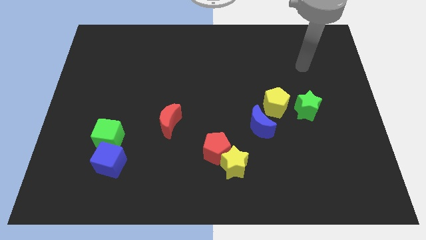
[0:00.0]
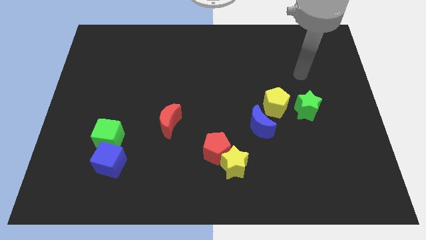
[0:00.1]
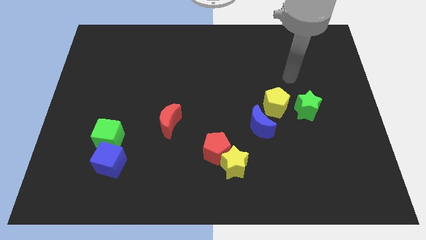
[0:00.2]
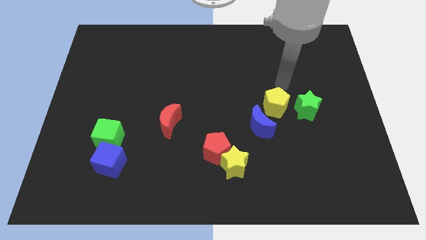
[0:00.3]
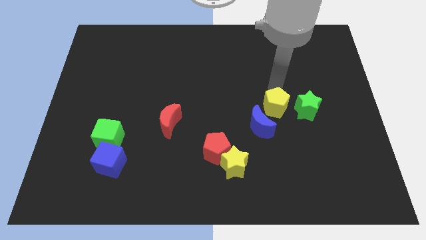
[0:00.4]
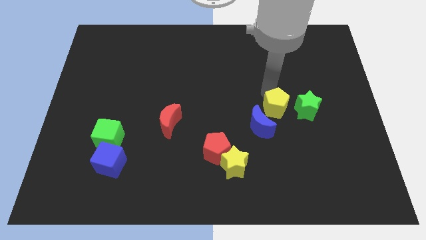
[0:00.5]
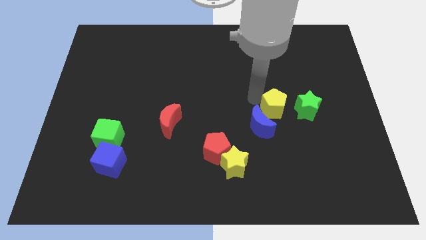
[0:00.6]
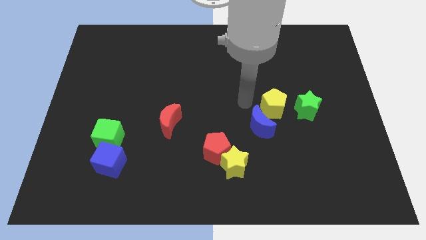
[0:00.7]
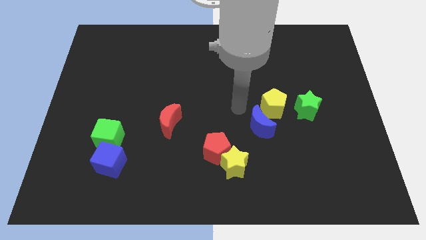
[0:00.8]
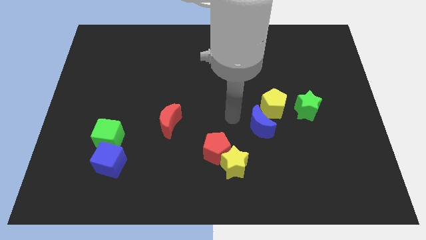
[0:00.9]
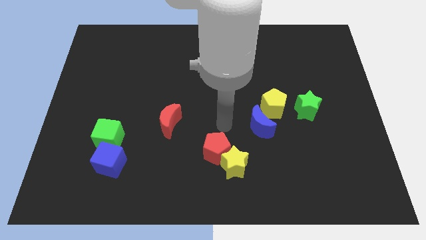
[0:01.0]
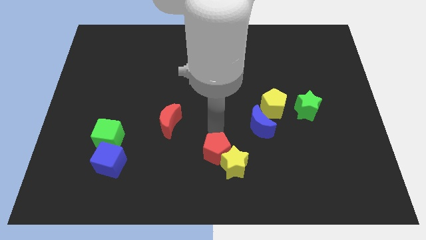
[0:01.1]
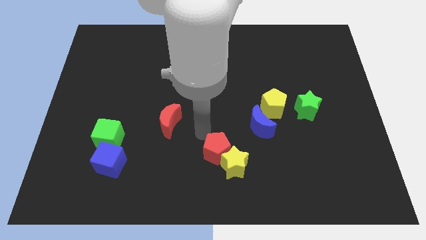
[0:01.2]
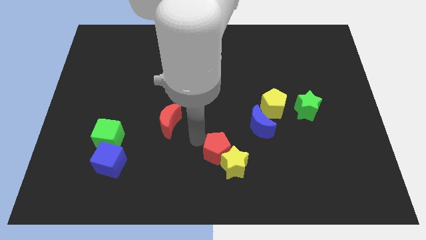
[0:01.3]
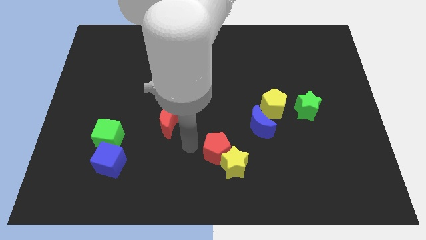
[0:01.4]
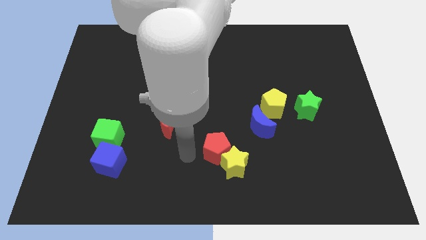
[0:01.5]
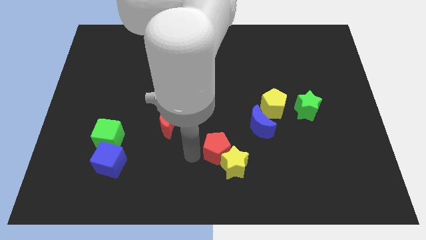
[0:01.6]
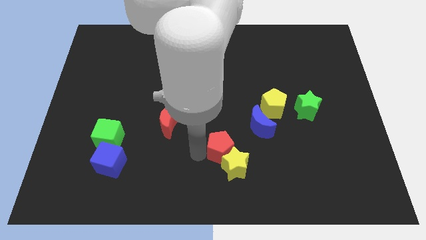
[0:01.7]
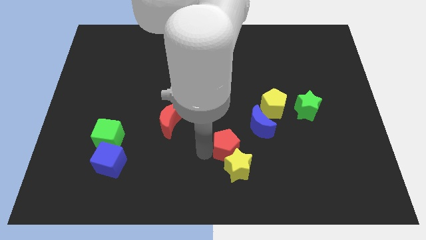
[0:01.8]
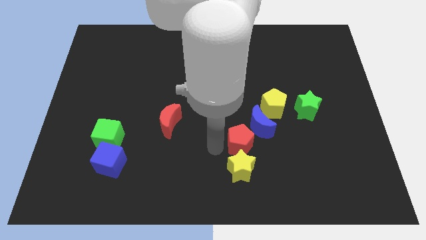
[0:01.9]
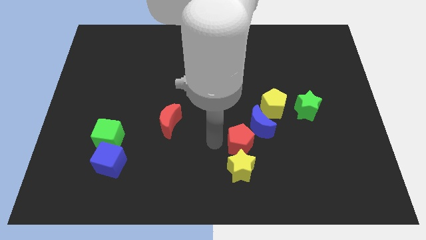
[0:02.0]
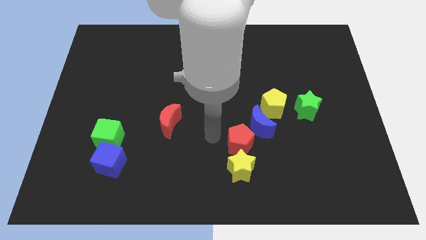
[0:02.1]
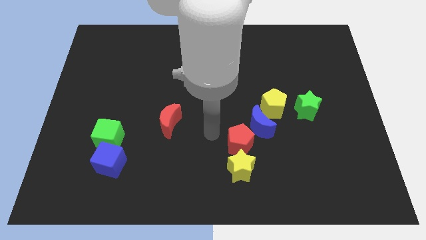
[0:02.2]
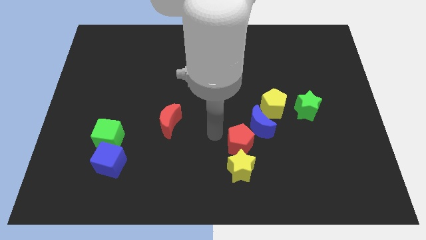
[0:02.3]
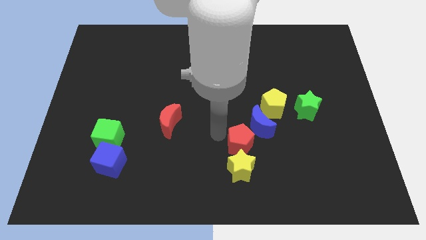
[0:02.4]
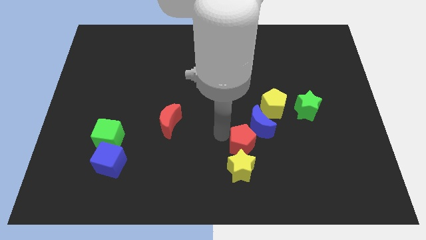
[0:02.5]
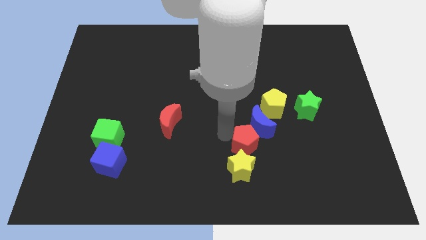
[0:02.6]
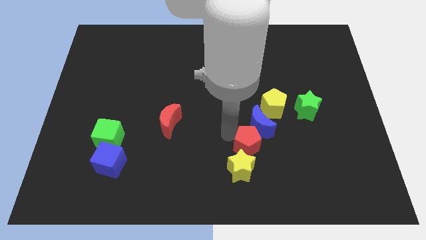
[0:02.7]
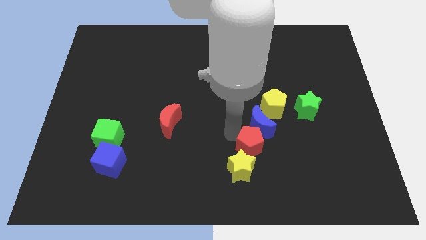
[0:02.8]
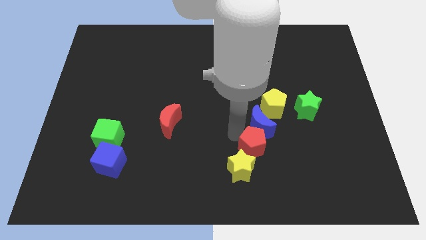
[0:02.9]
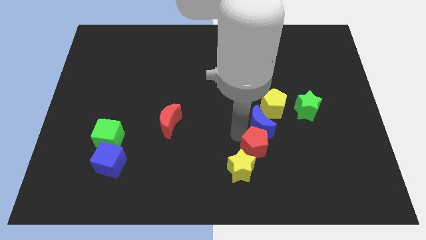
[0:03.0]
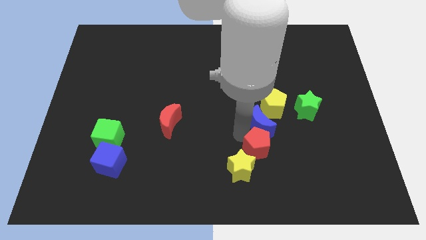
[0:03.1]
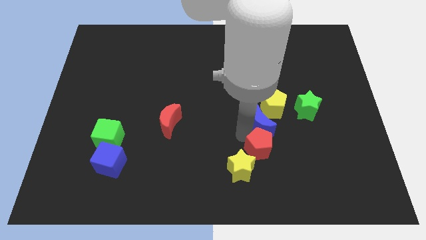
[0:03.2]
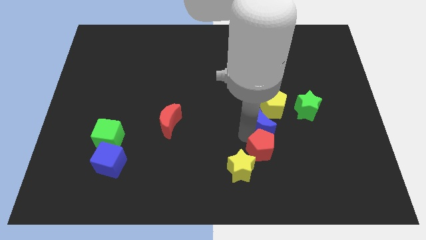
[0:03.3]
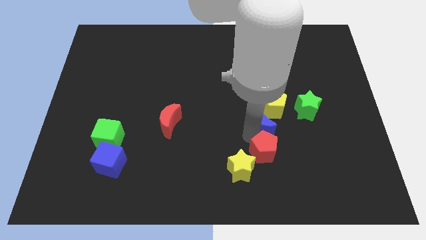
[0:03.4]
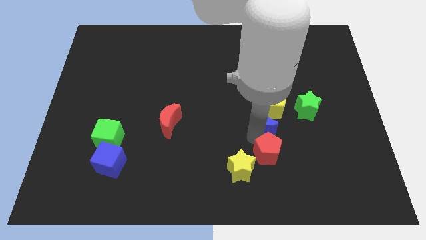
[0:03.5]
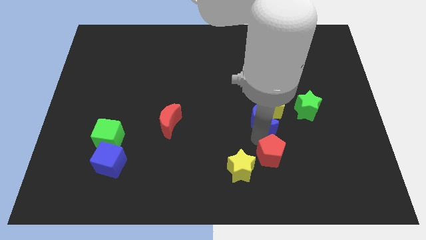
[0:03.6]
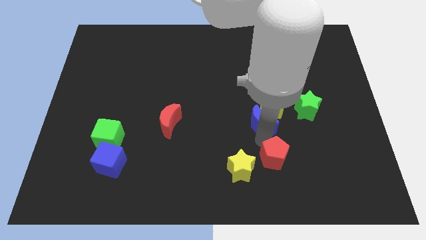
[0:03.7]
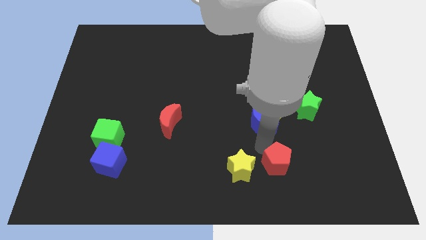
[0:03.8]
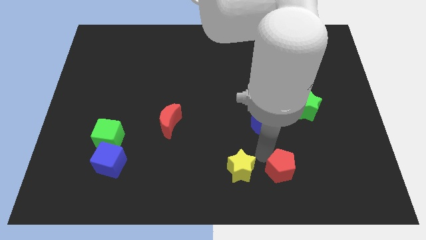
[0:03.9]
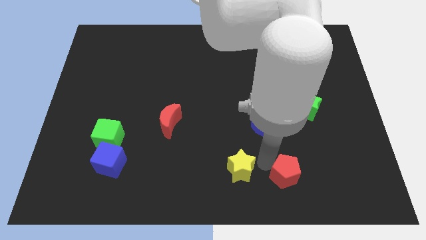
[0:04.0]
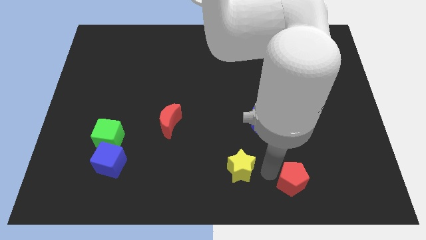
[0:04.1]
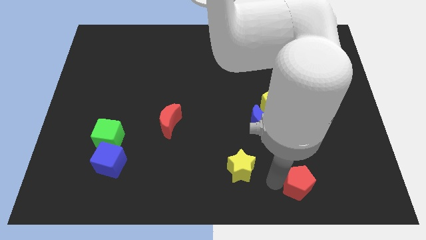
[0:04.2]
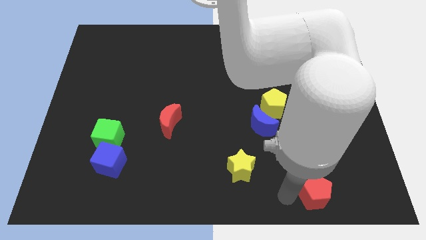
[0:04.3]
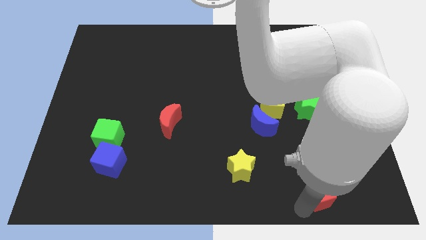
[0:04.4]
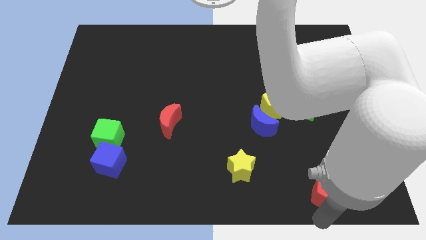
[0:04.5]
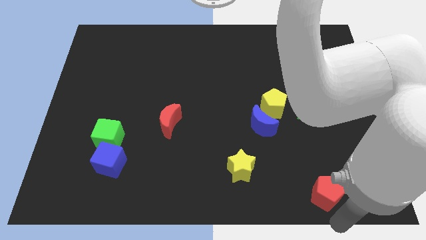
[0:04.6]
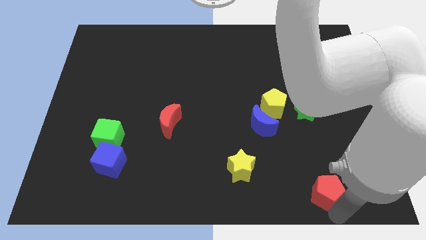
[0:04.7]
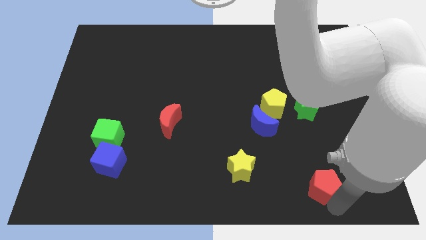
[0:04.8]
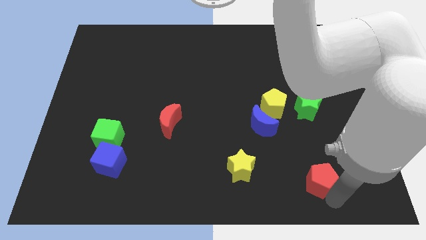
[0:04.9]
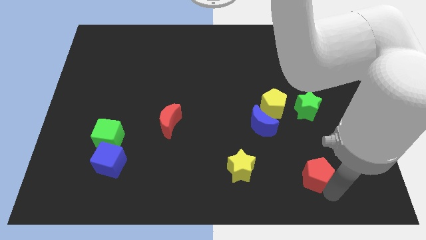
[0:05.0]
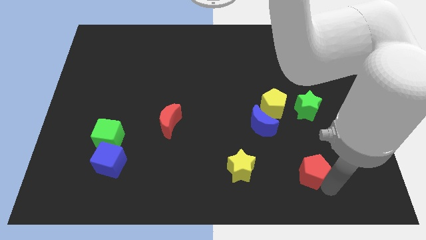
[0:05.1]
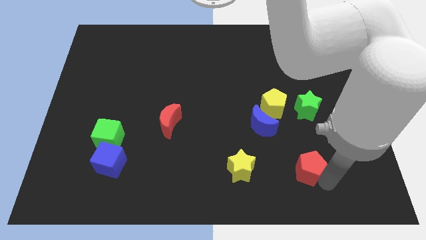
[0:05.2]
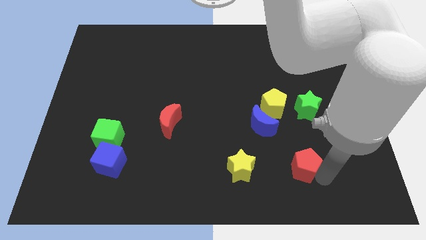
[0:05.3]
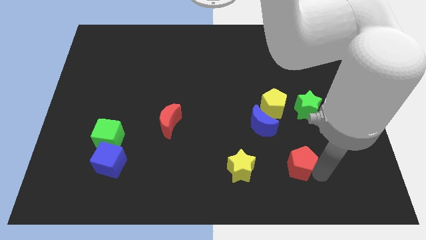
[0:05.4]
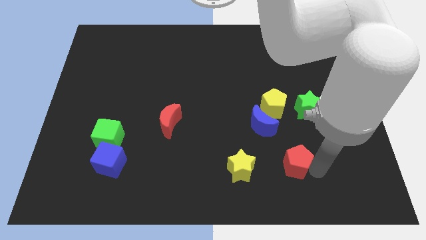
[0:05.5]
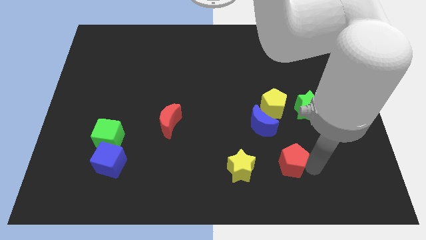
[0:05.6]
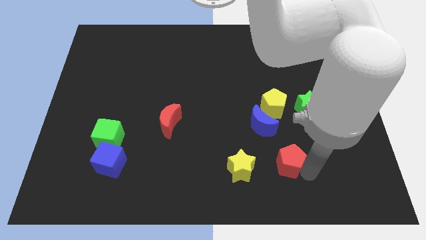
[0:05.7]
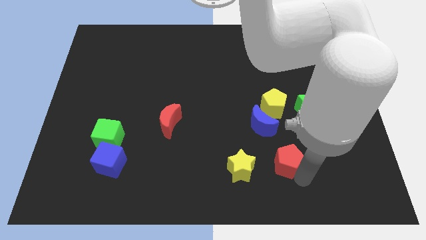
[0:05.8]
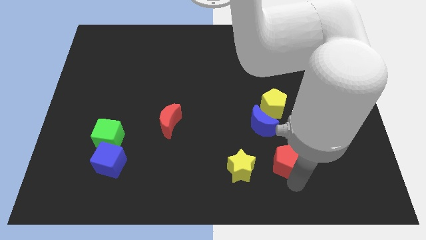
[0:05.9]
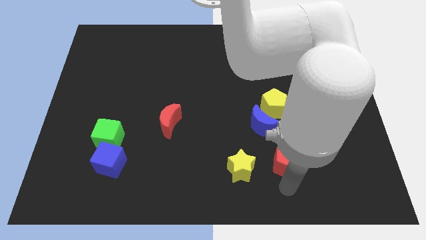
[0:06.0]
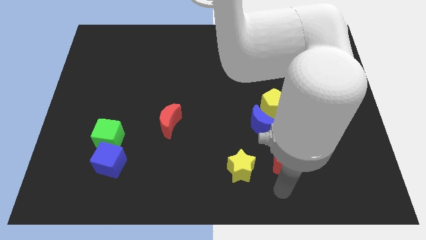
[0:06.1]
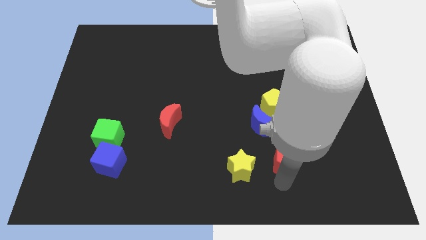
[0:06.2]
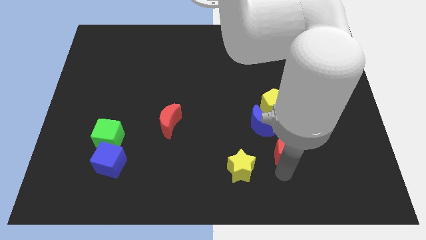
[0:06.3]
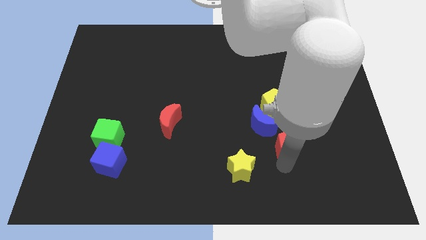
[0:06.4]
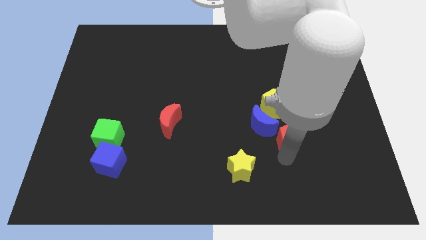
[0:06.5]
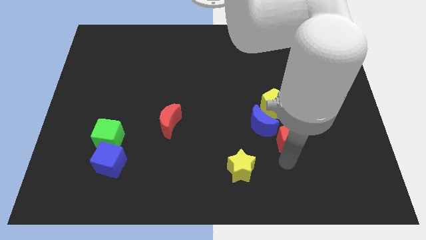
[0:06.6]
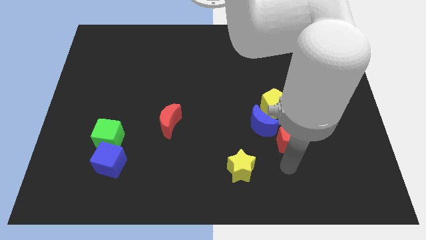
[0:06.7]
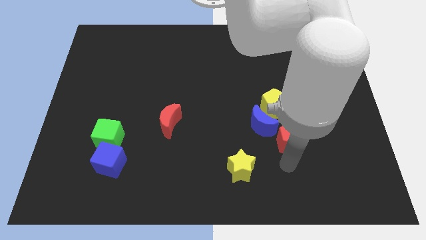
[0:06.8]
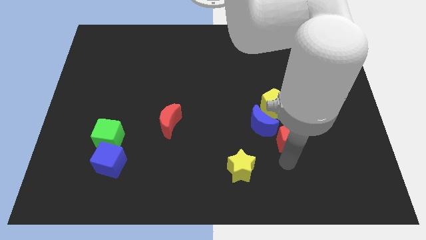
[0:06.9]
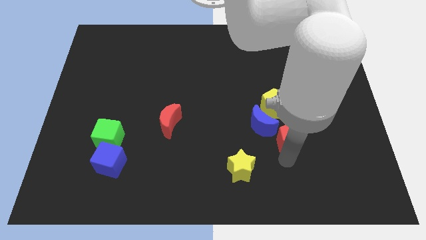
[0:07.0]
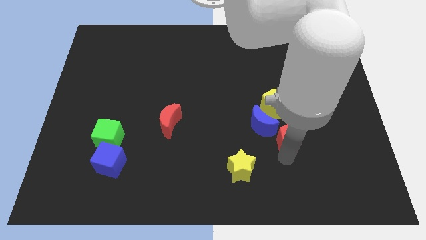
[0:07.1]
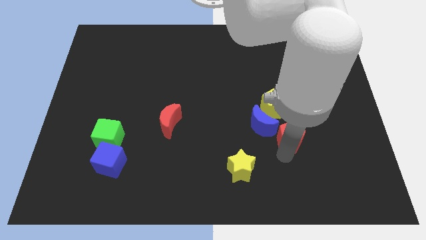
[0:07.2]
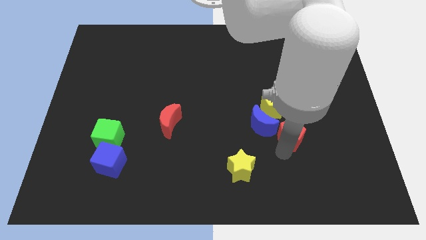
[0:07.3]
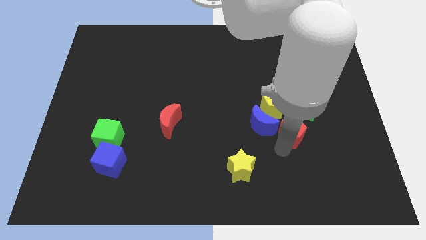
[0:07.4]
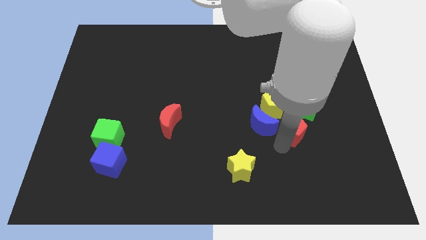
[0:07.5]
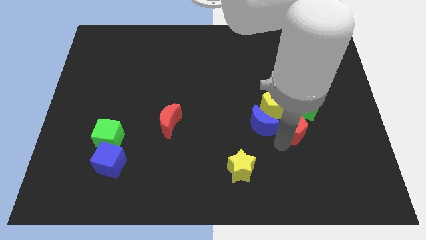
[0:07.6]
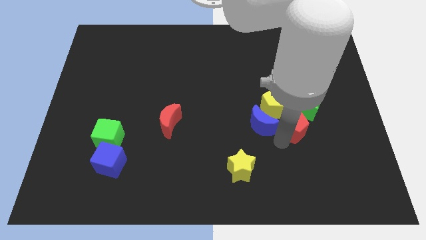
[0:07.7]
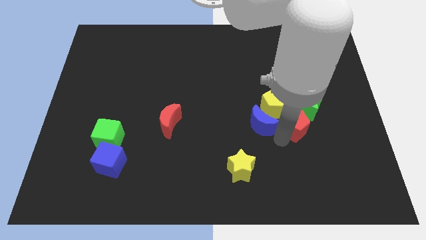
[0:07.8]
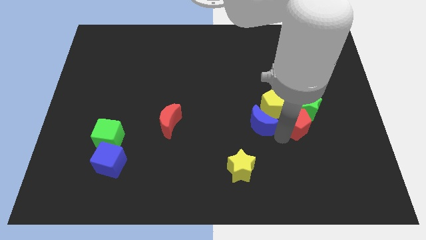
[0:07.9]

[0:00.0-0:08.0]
push the red pentagon next to the green star
